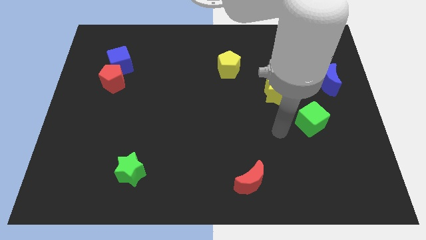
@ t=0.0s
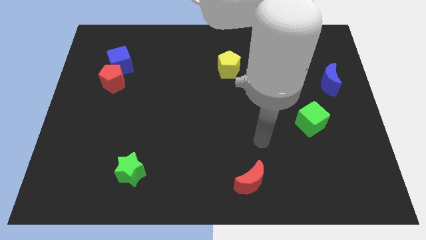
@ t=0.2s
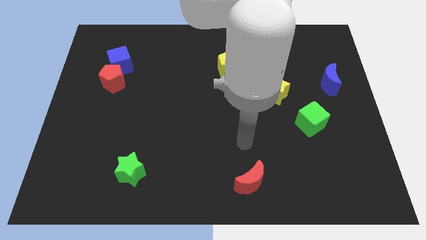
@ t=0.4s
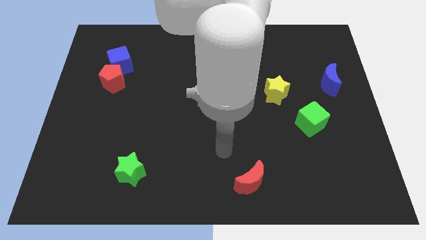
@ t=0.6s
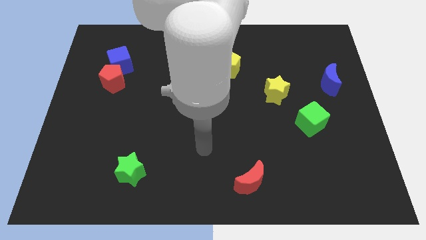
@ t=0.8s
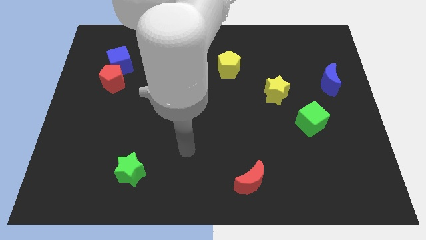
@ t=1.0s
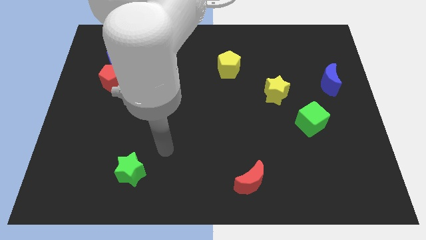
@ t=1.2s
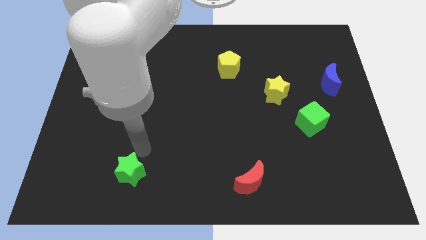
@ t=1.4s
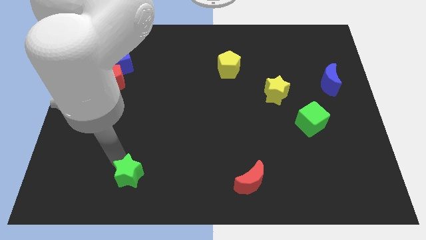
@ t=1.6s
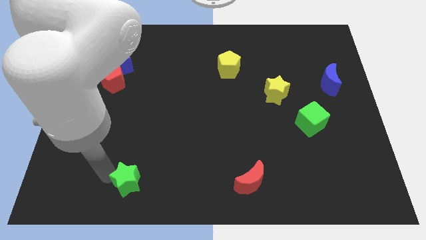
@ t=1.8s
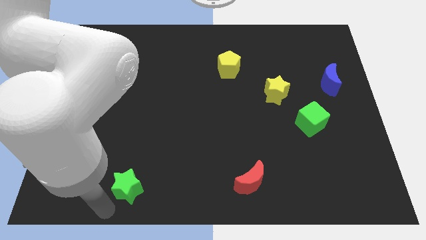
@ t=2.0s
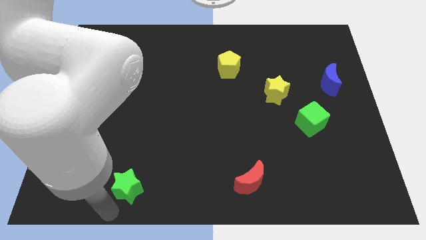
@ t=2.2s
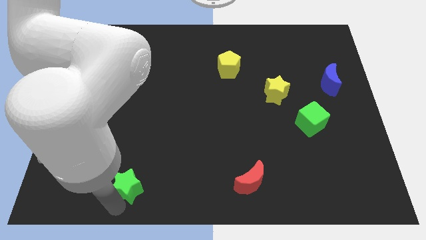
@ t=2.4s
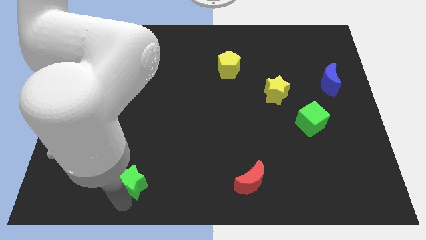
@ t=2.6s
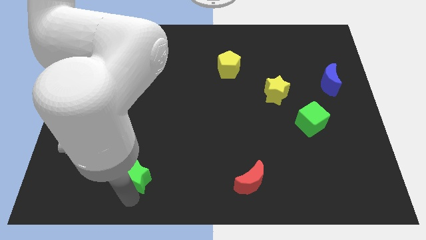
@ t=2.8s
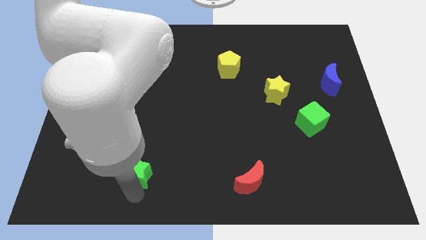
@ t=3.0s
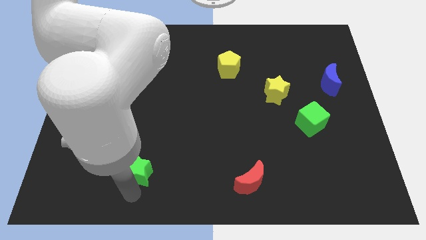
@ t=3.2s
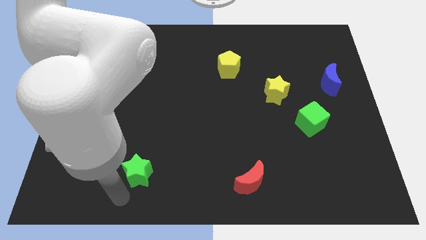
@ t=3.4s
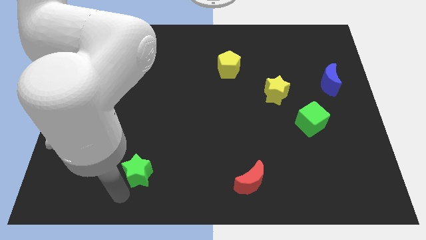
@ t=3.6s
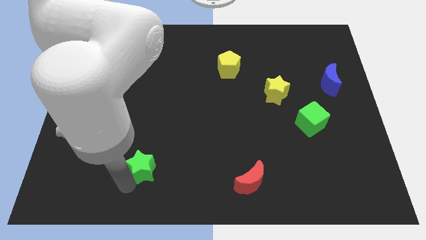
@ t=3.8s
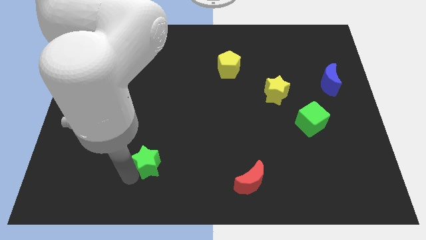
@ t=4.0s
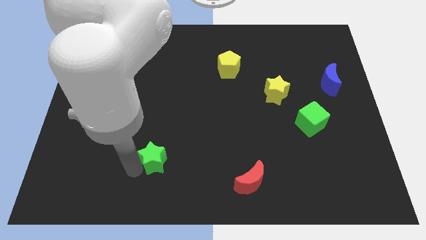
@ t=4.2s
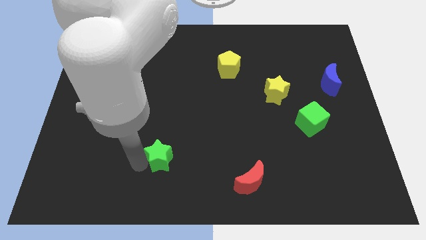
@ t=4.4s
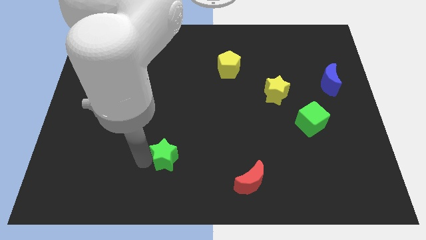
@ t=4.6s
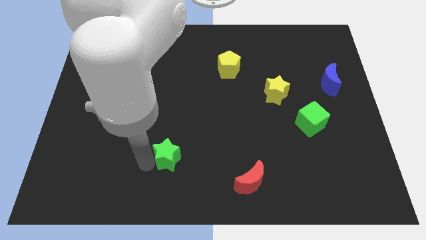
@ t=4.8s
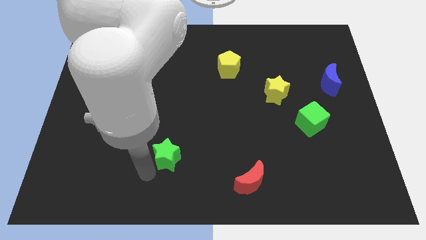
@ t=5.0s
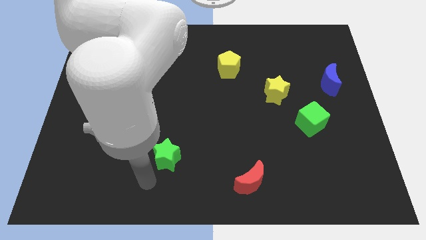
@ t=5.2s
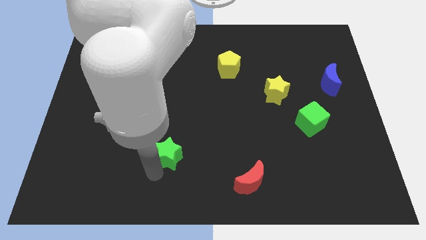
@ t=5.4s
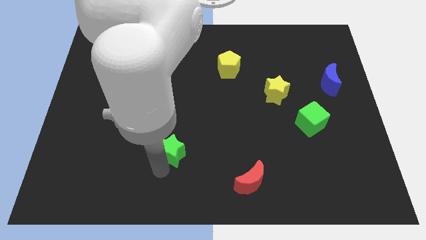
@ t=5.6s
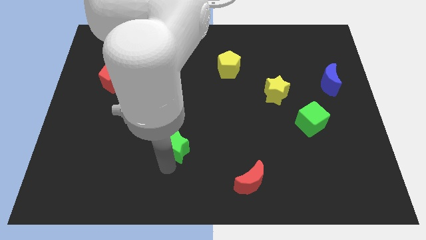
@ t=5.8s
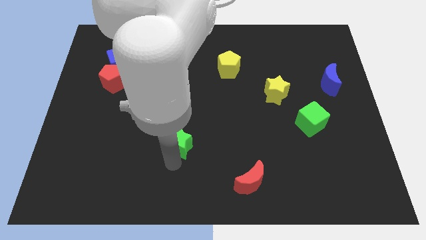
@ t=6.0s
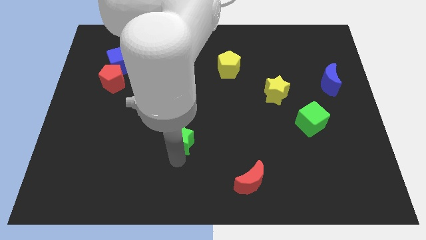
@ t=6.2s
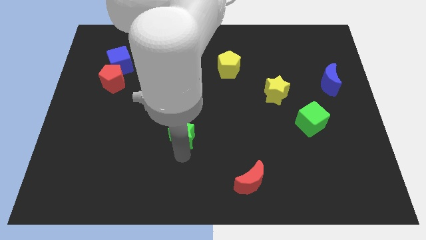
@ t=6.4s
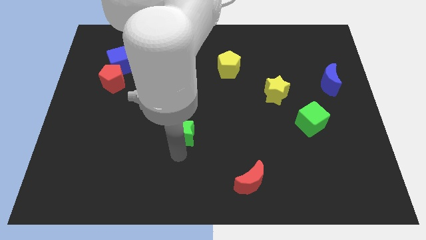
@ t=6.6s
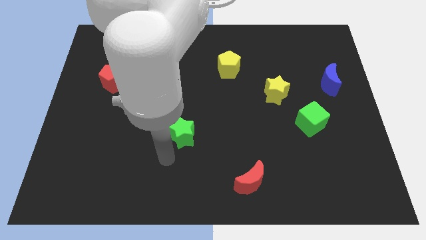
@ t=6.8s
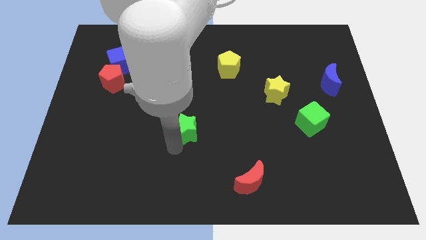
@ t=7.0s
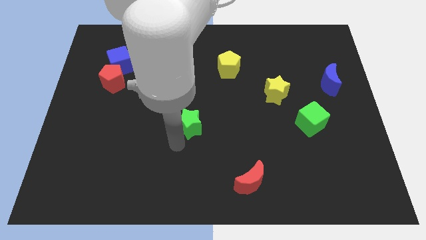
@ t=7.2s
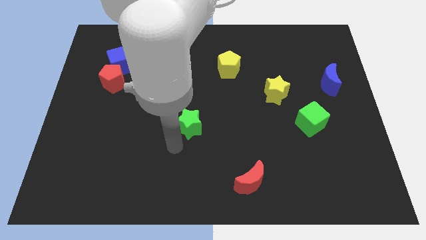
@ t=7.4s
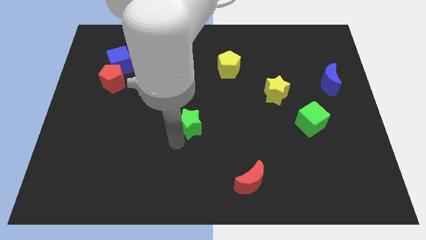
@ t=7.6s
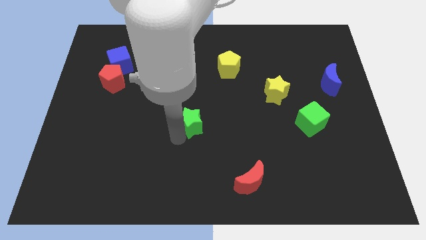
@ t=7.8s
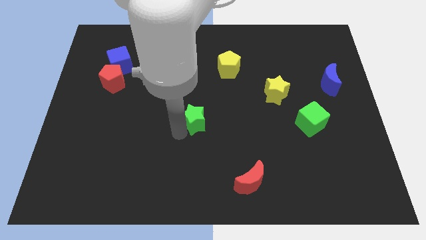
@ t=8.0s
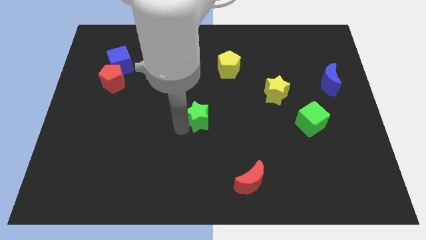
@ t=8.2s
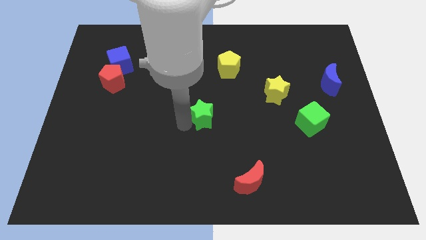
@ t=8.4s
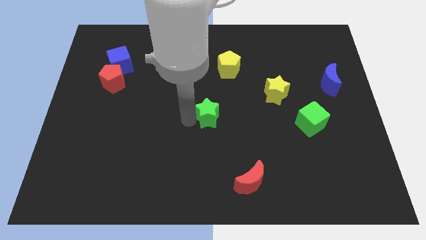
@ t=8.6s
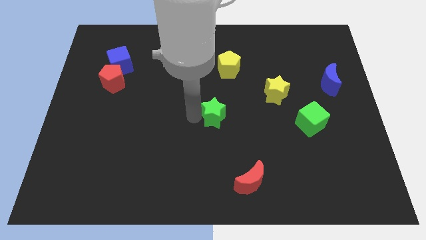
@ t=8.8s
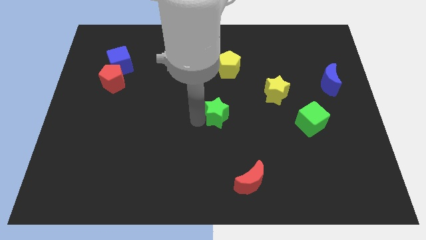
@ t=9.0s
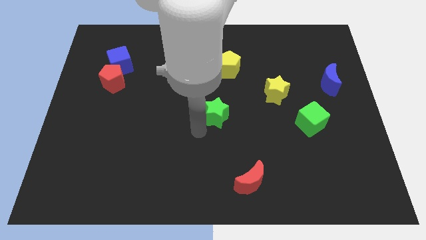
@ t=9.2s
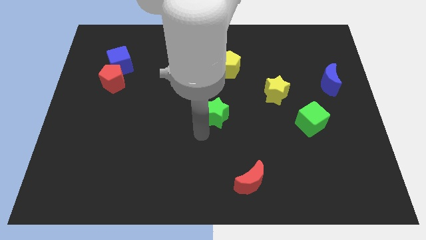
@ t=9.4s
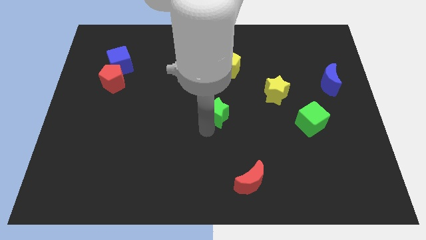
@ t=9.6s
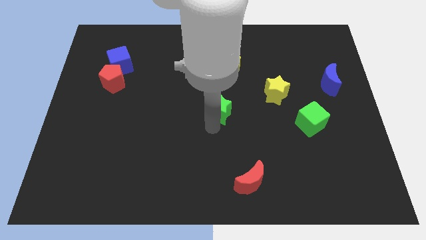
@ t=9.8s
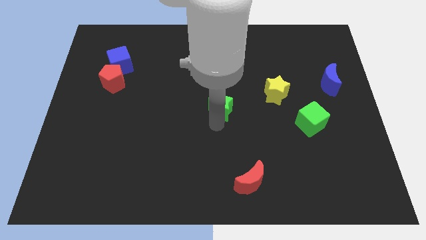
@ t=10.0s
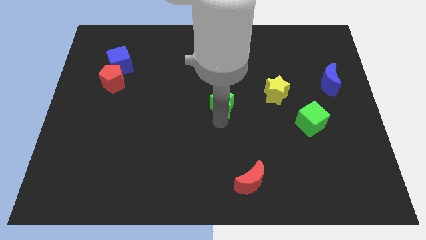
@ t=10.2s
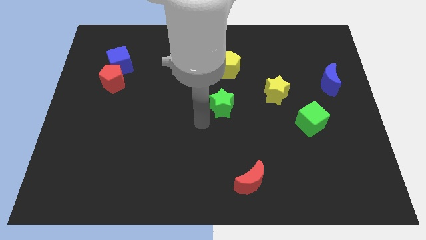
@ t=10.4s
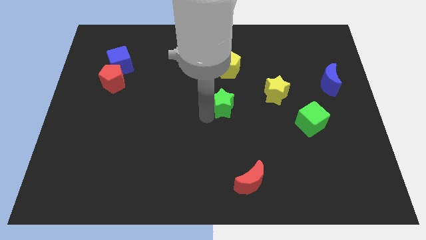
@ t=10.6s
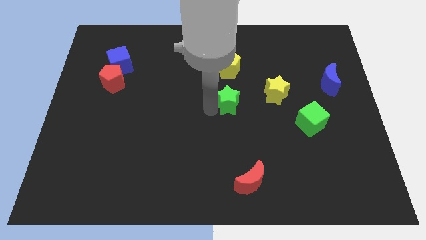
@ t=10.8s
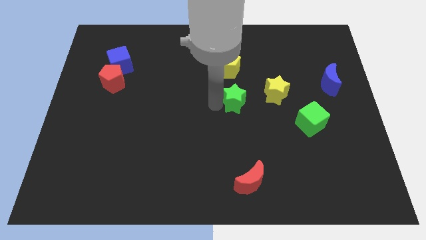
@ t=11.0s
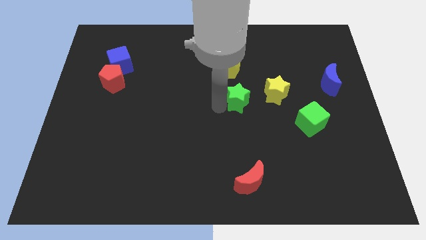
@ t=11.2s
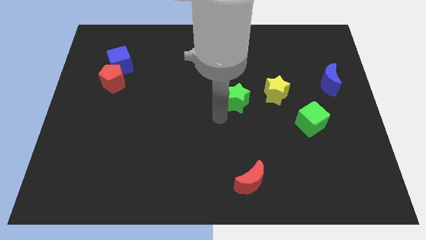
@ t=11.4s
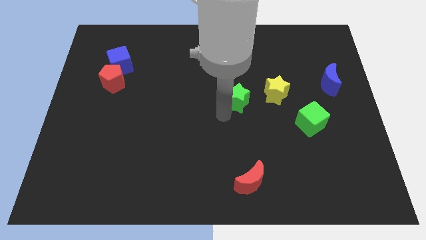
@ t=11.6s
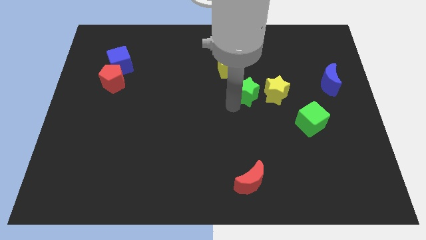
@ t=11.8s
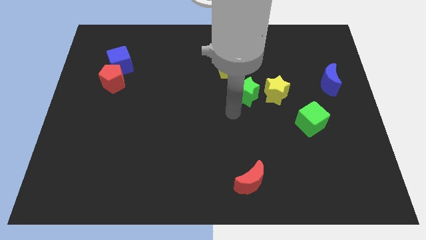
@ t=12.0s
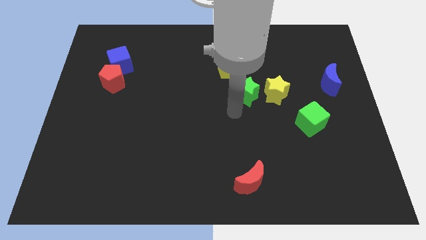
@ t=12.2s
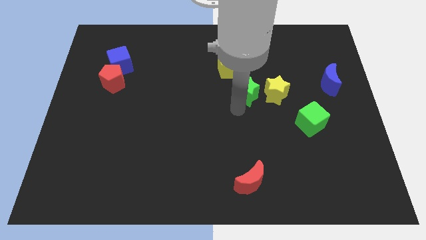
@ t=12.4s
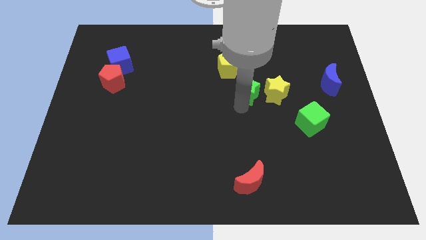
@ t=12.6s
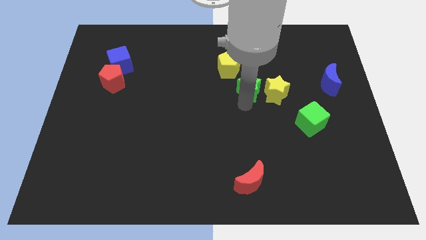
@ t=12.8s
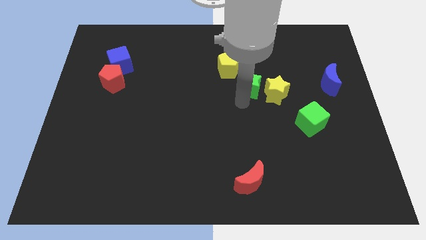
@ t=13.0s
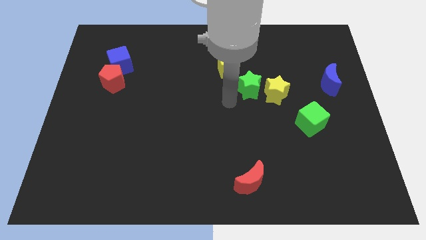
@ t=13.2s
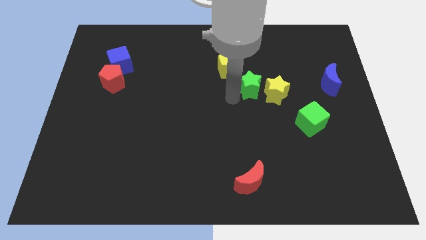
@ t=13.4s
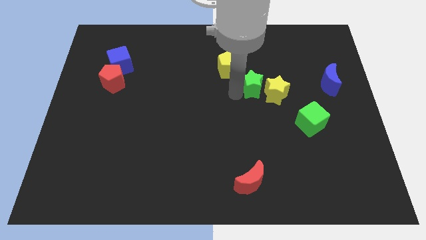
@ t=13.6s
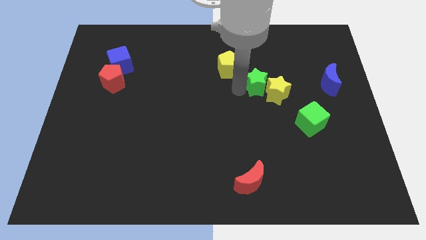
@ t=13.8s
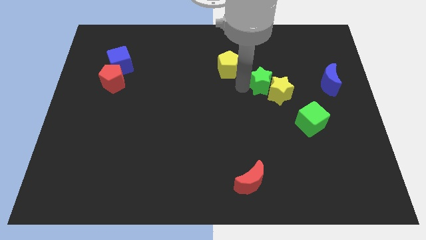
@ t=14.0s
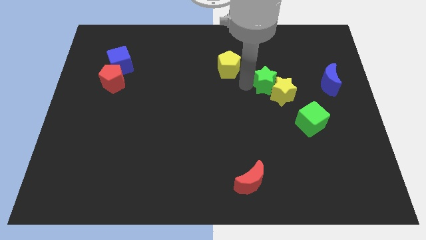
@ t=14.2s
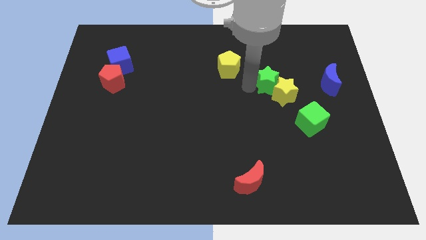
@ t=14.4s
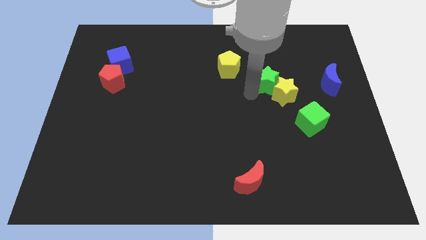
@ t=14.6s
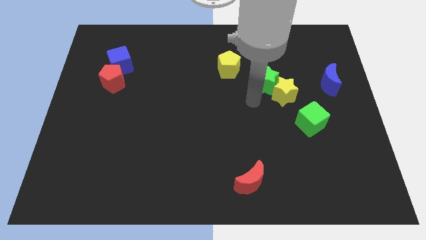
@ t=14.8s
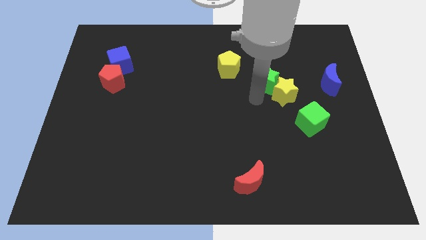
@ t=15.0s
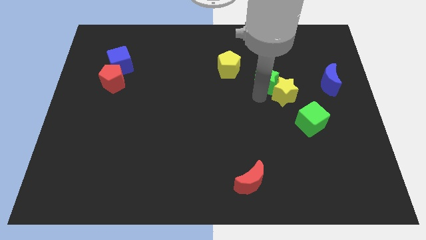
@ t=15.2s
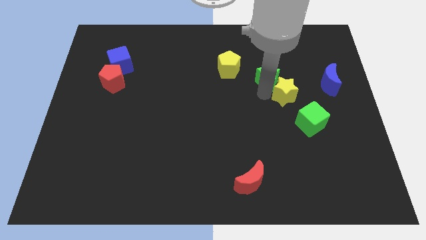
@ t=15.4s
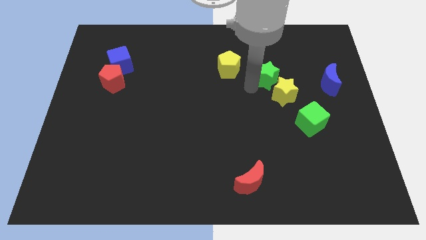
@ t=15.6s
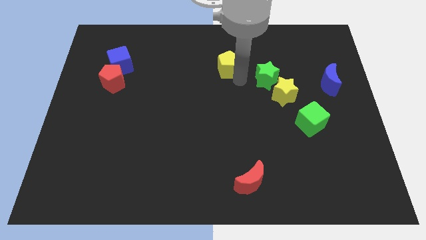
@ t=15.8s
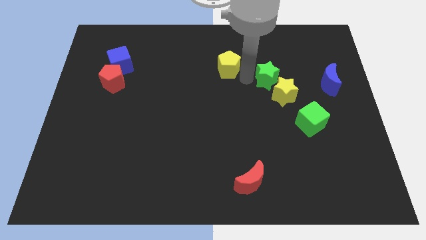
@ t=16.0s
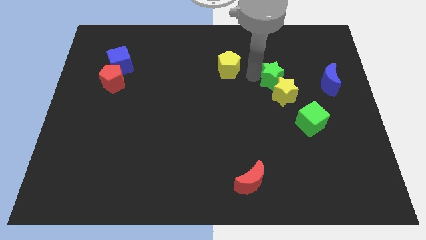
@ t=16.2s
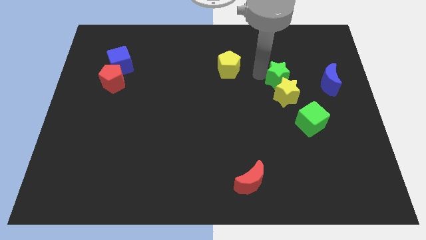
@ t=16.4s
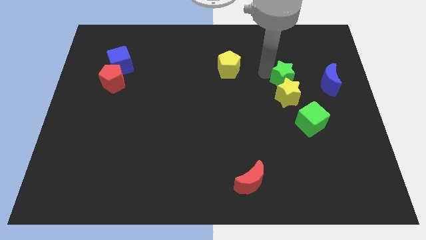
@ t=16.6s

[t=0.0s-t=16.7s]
push the green star to the top right of the yellow star
